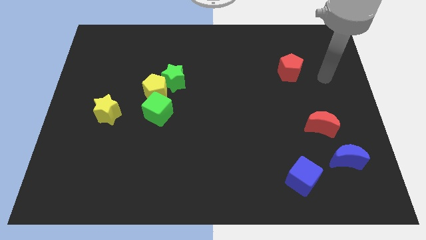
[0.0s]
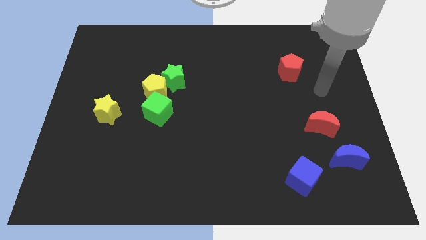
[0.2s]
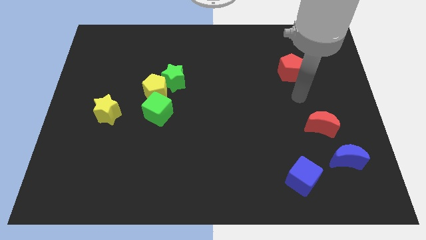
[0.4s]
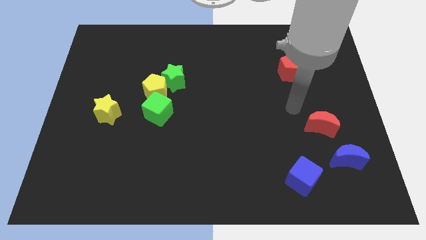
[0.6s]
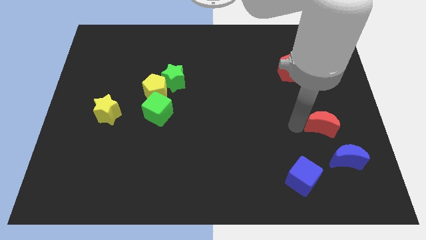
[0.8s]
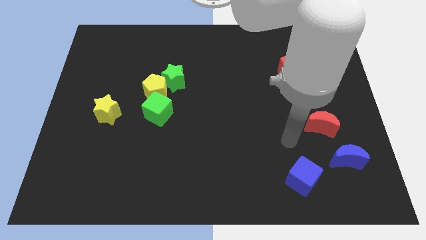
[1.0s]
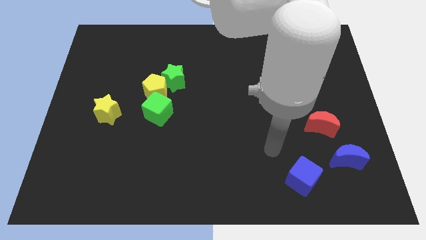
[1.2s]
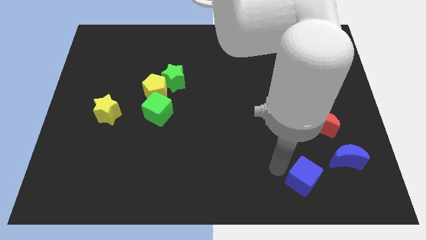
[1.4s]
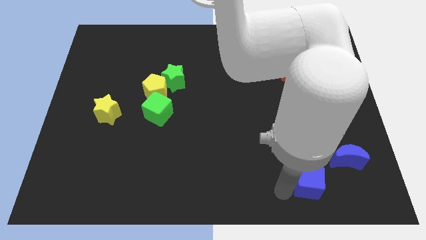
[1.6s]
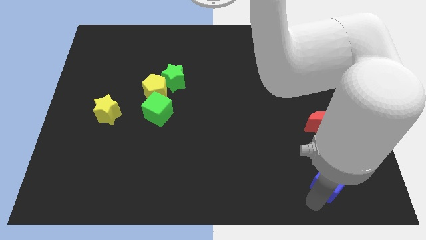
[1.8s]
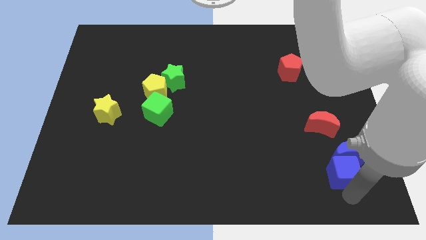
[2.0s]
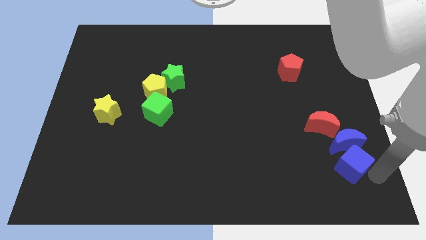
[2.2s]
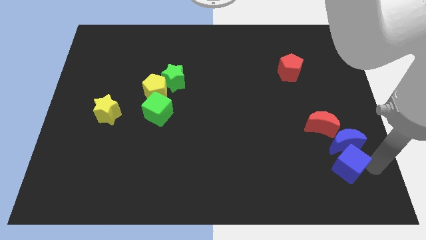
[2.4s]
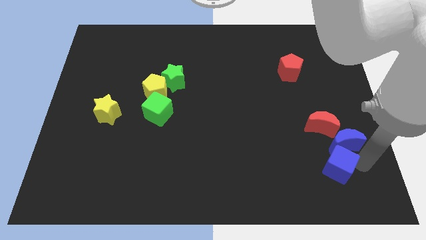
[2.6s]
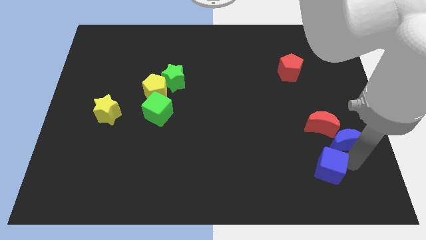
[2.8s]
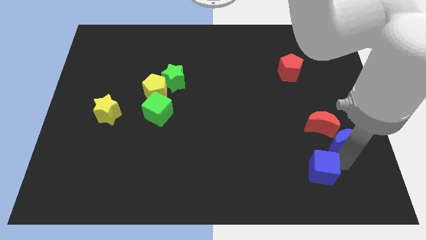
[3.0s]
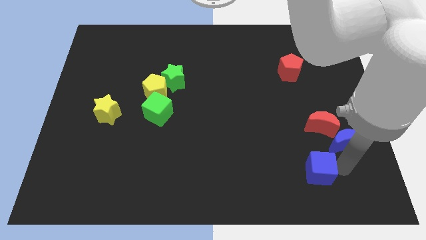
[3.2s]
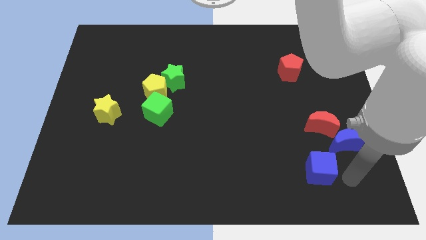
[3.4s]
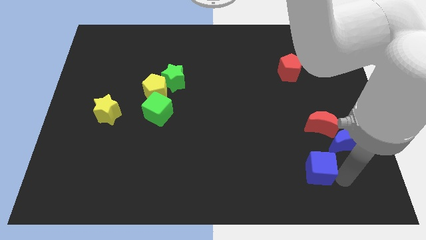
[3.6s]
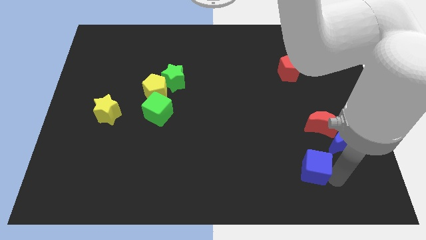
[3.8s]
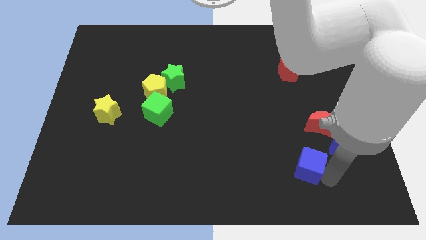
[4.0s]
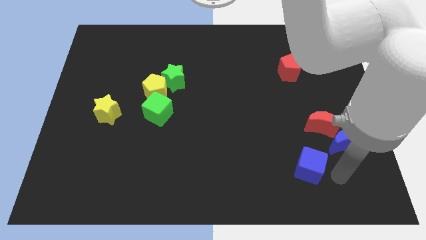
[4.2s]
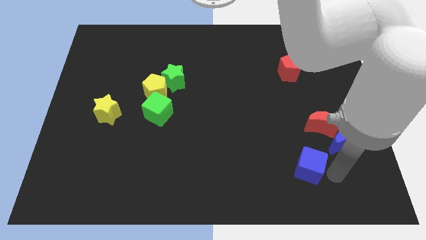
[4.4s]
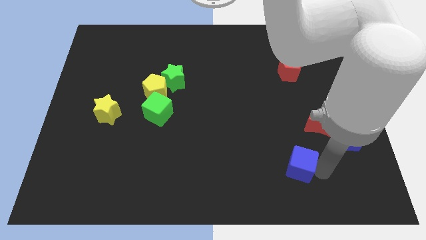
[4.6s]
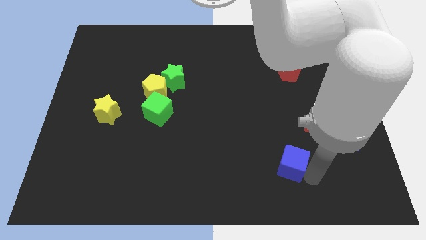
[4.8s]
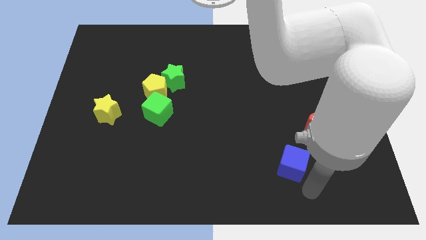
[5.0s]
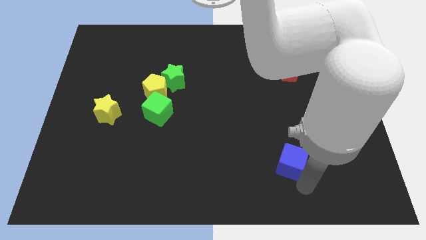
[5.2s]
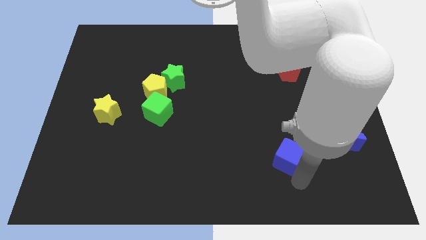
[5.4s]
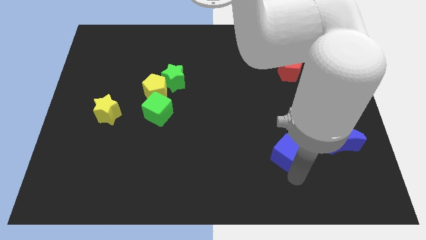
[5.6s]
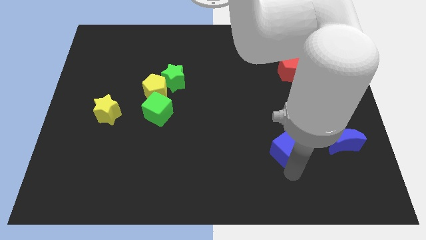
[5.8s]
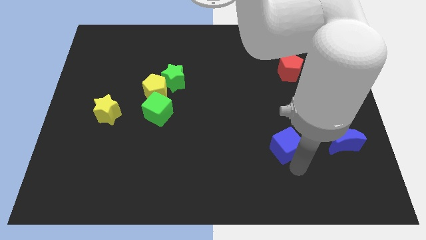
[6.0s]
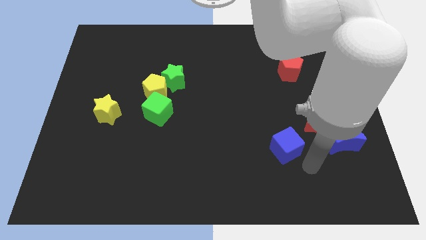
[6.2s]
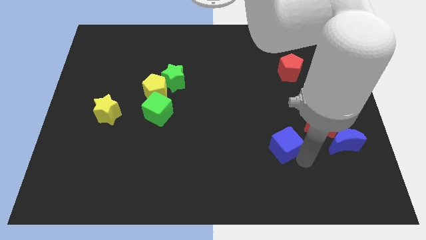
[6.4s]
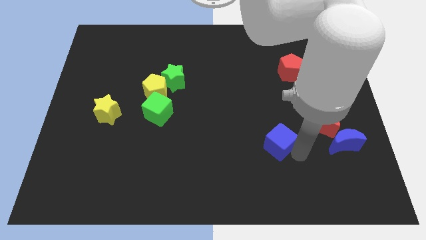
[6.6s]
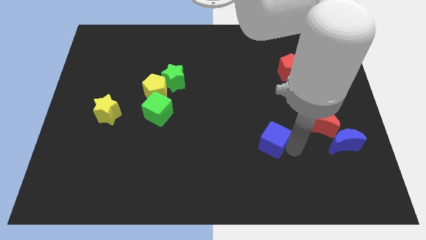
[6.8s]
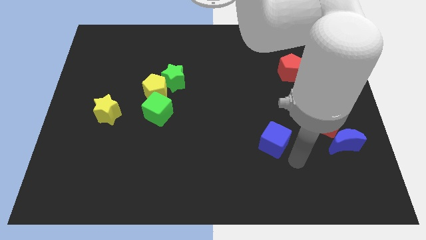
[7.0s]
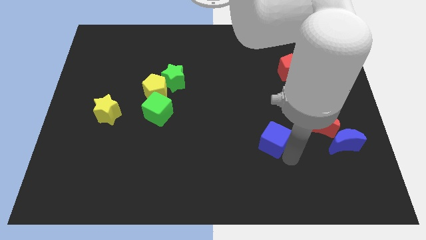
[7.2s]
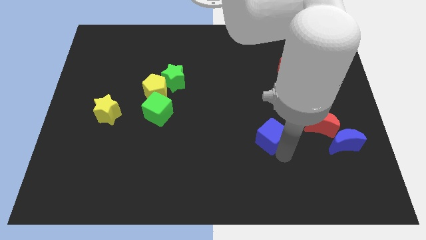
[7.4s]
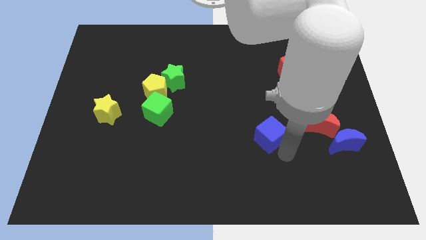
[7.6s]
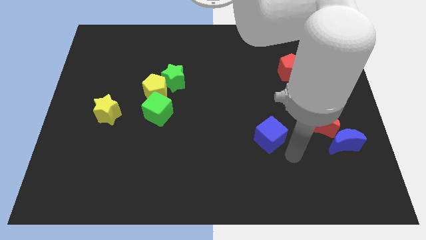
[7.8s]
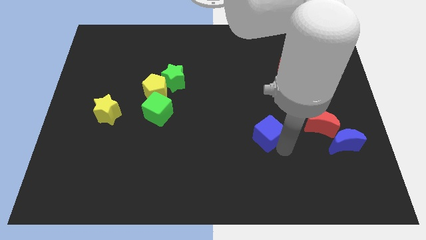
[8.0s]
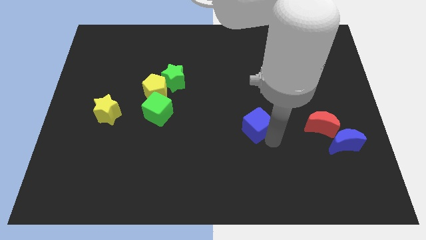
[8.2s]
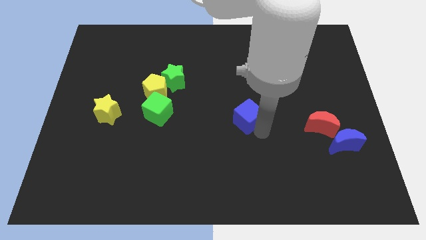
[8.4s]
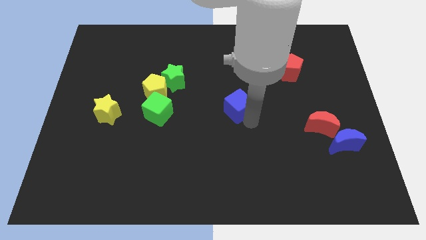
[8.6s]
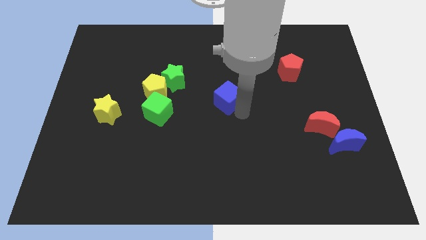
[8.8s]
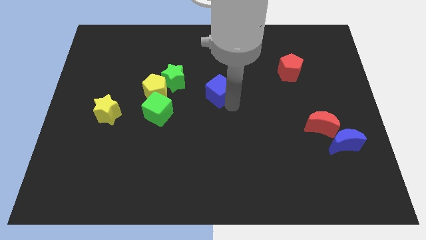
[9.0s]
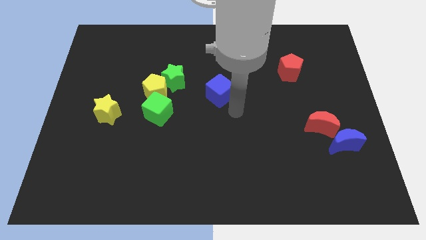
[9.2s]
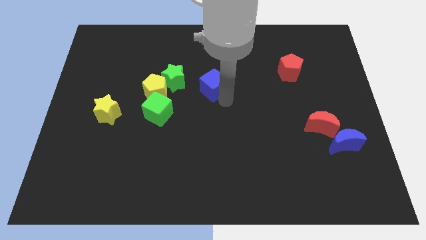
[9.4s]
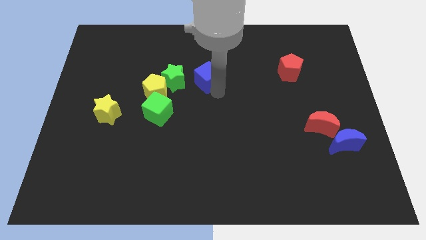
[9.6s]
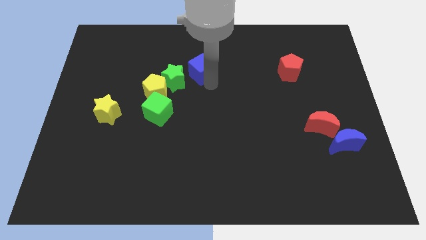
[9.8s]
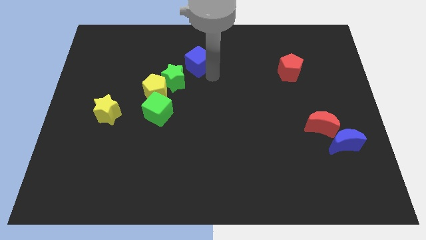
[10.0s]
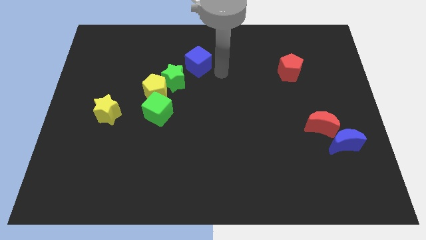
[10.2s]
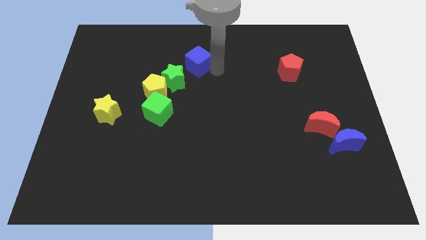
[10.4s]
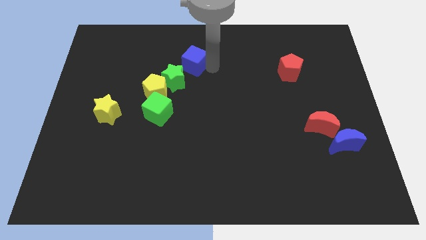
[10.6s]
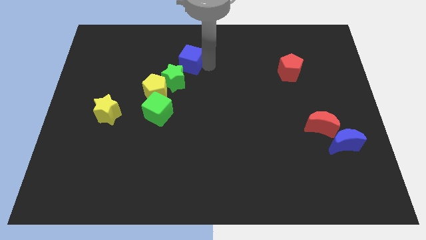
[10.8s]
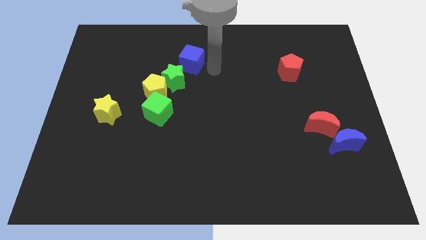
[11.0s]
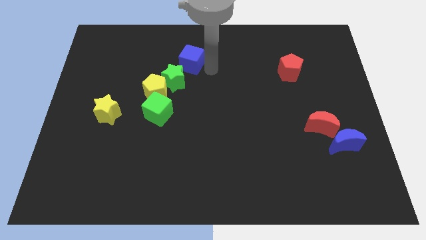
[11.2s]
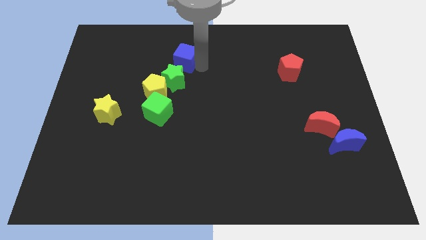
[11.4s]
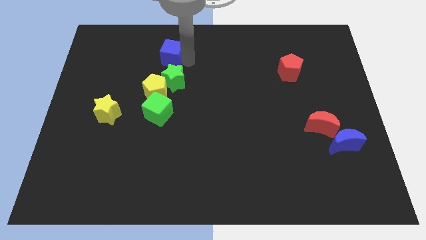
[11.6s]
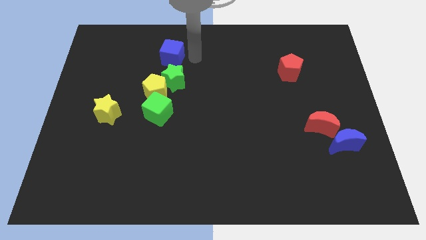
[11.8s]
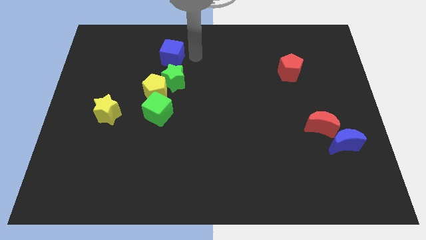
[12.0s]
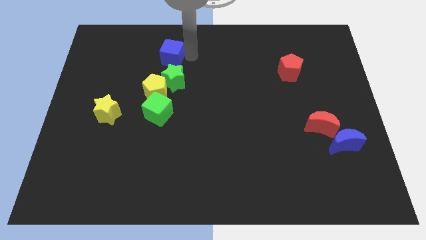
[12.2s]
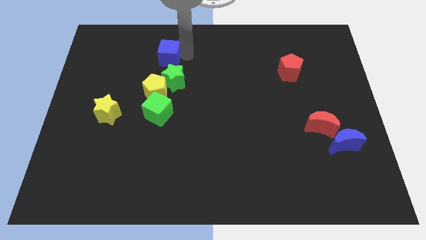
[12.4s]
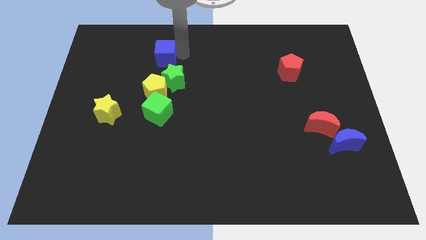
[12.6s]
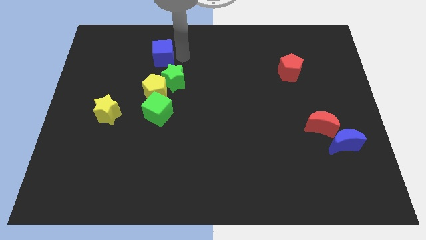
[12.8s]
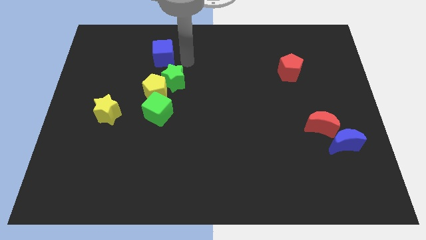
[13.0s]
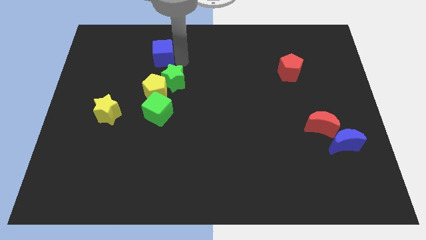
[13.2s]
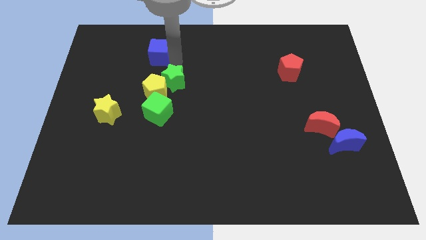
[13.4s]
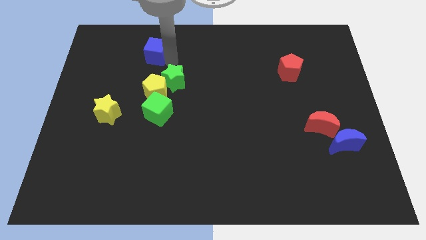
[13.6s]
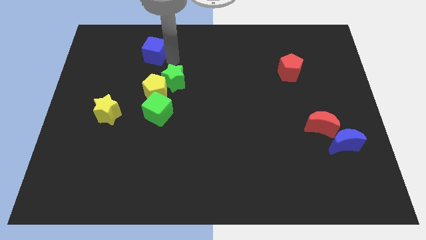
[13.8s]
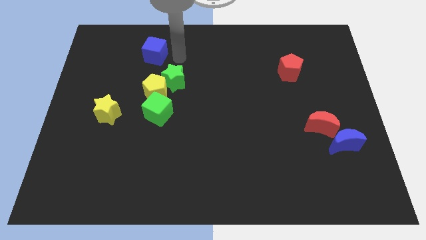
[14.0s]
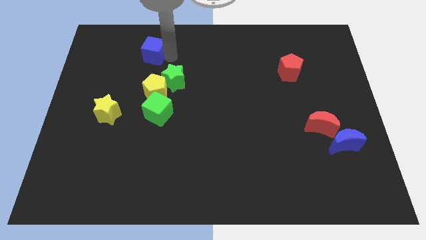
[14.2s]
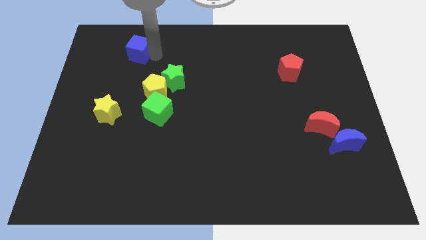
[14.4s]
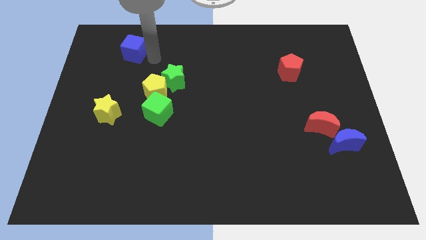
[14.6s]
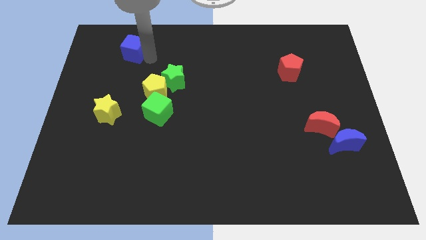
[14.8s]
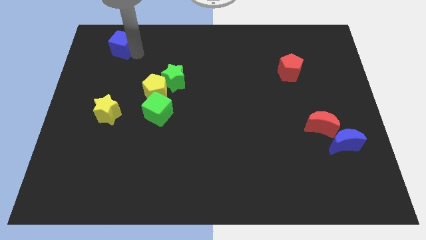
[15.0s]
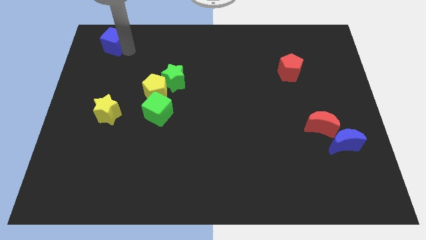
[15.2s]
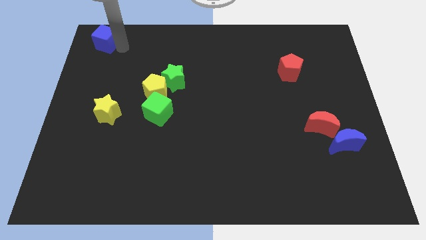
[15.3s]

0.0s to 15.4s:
move the blue cube to the top left
